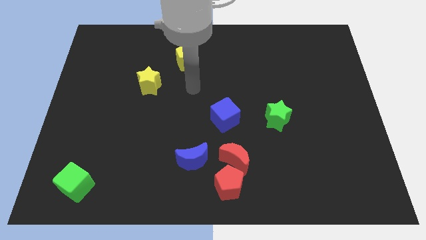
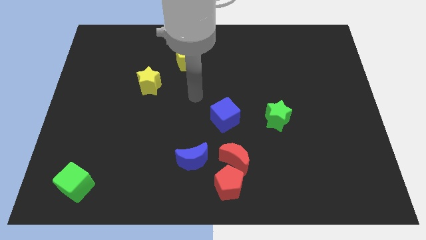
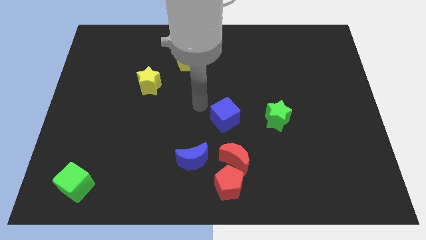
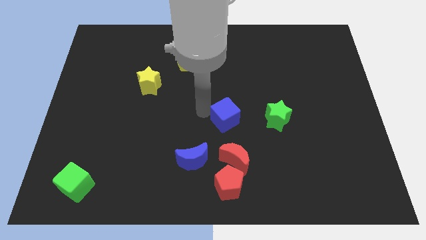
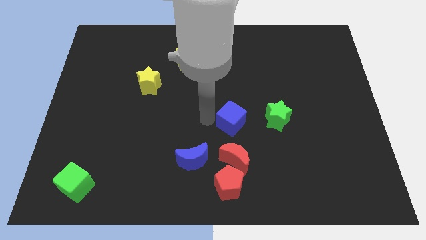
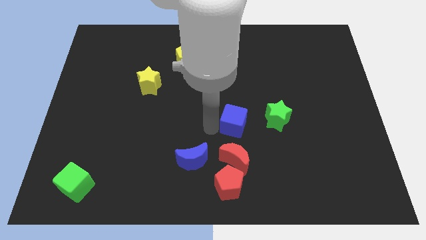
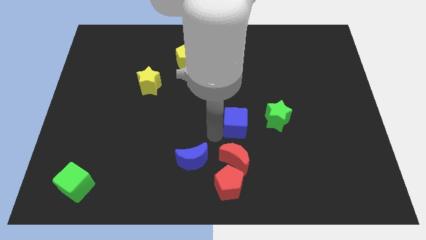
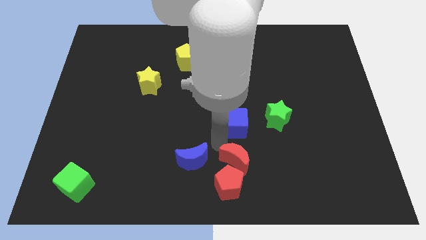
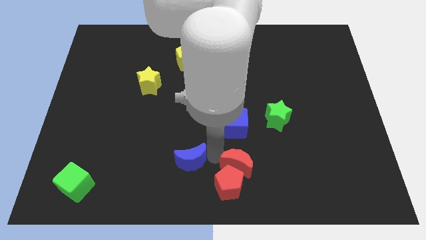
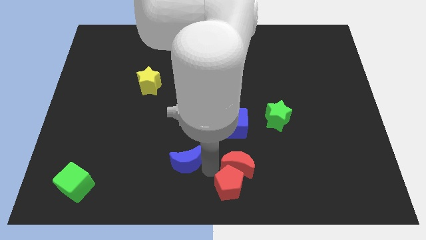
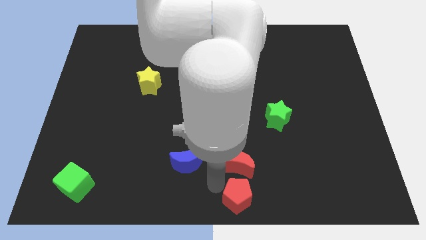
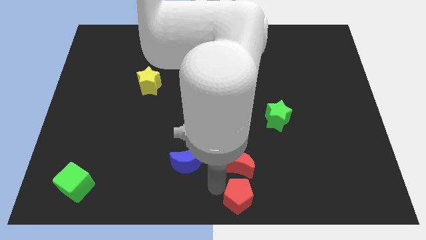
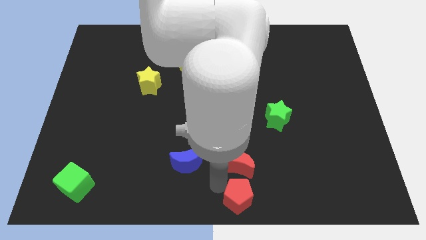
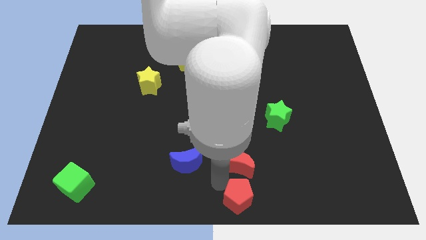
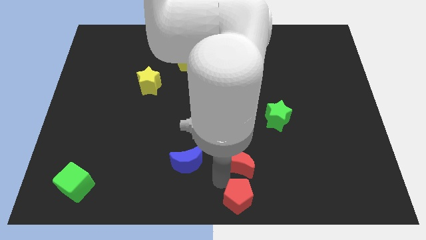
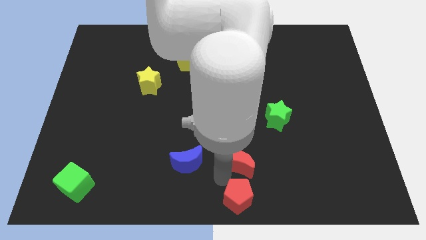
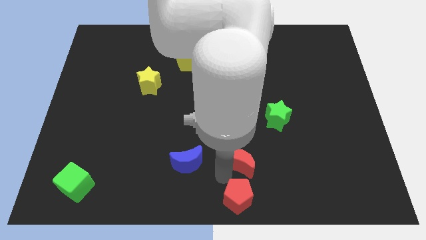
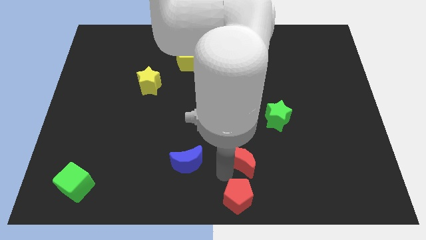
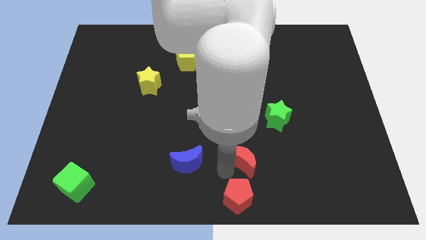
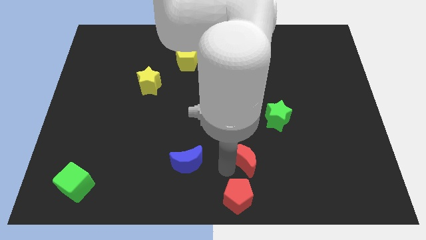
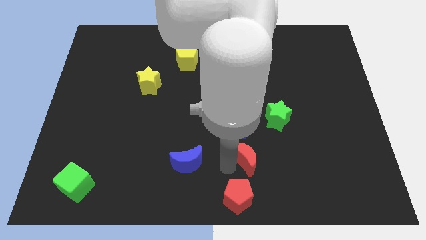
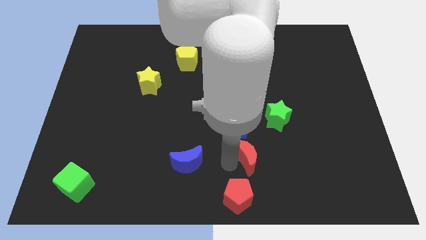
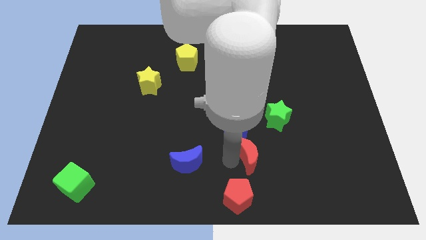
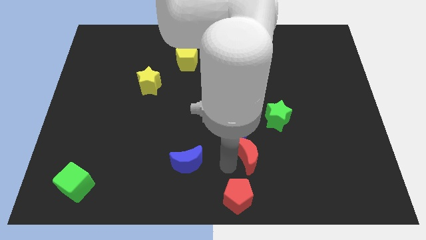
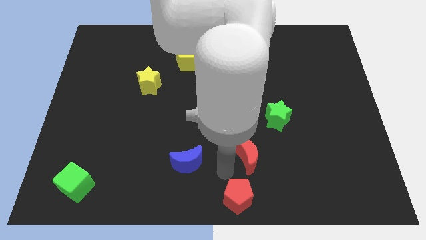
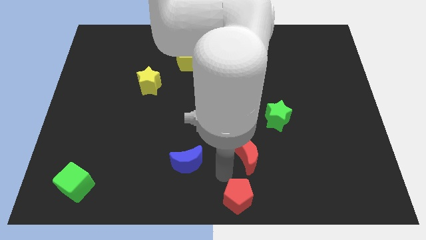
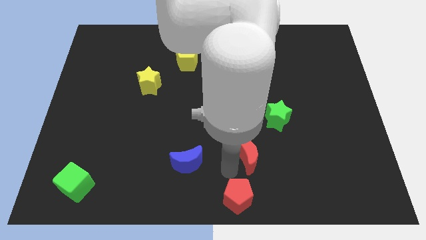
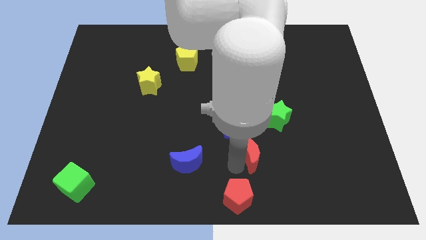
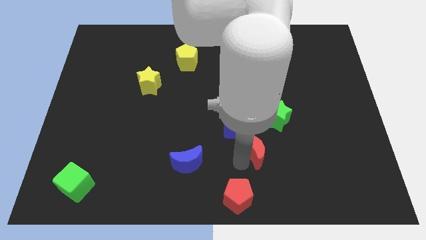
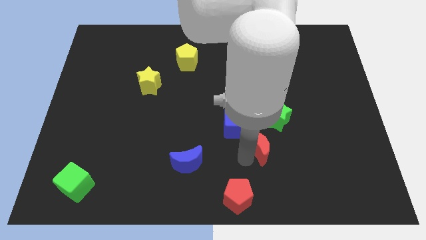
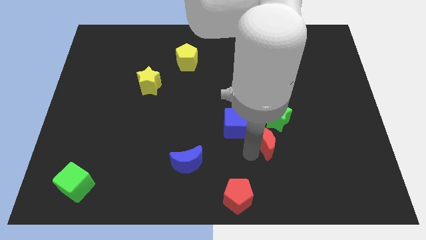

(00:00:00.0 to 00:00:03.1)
push the red moon upwards and then to the right a little bit

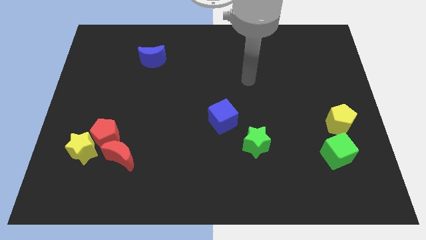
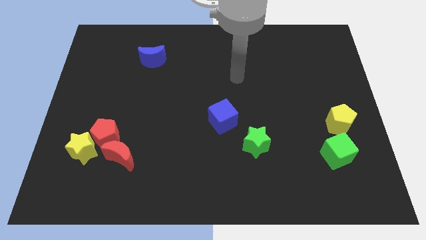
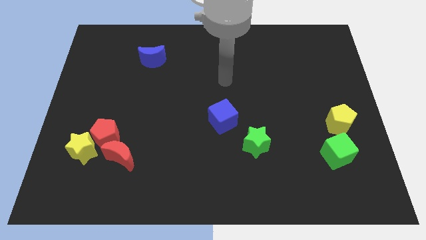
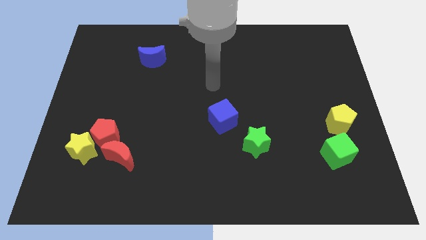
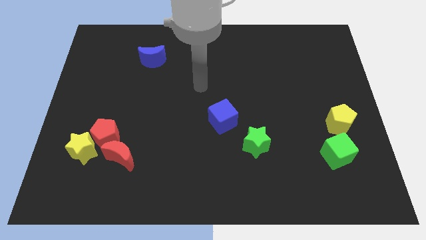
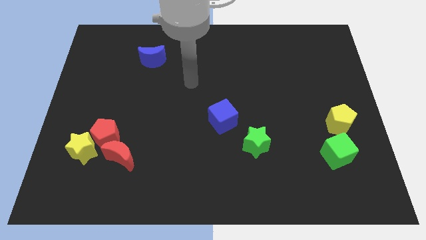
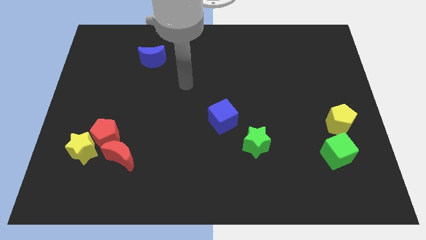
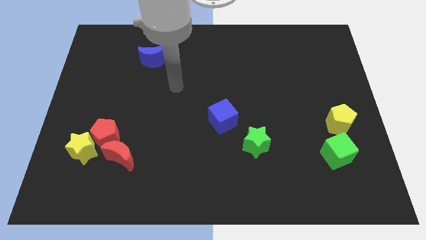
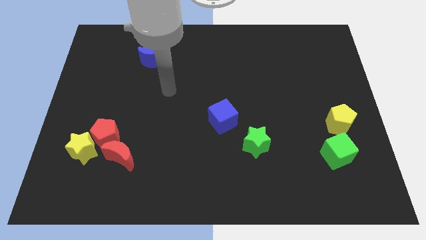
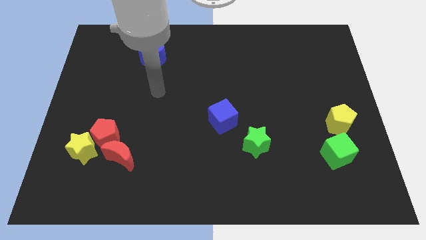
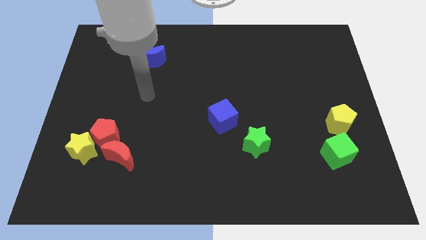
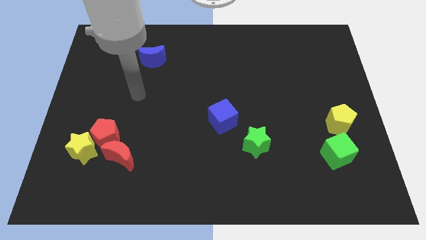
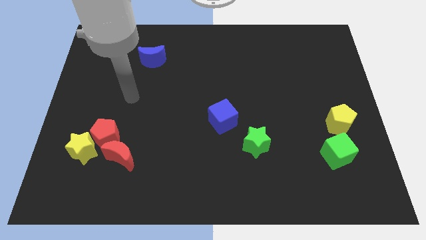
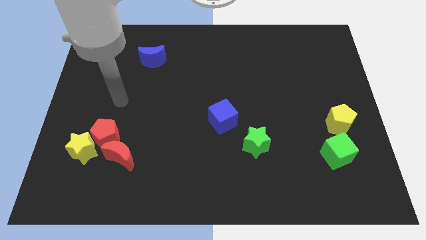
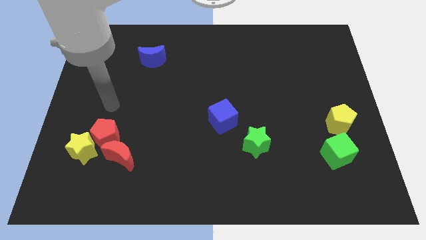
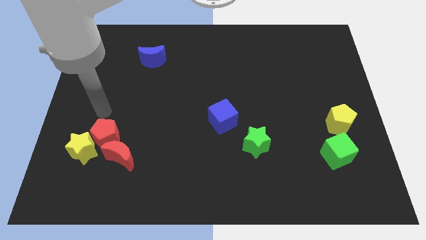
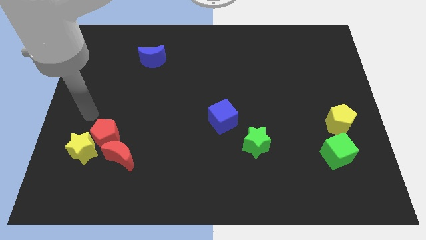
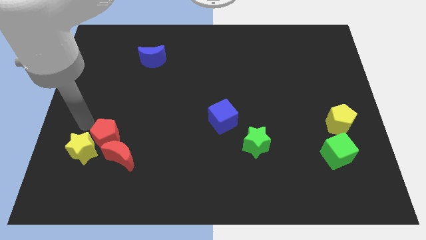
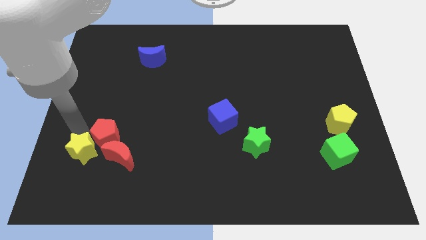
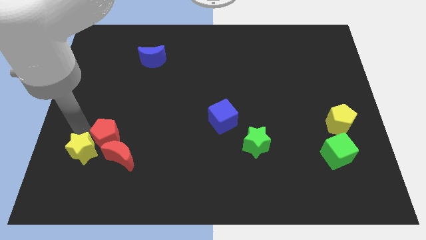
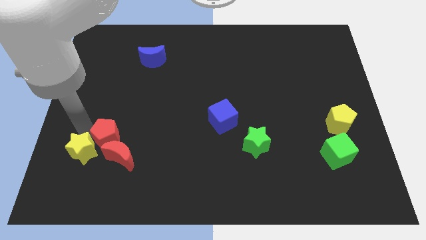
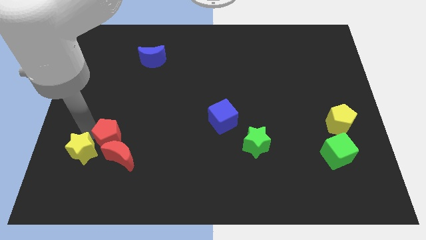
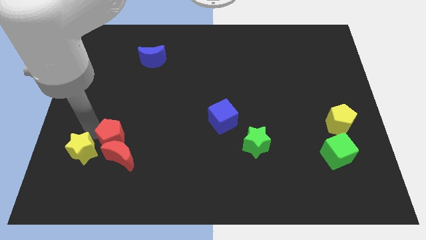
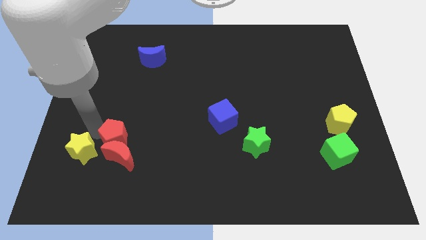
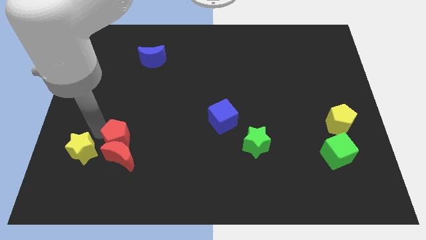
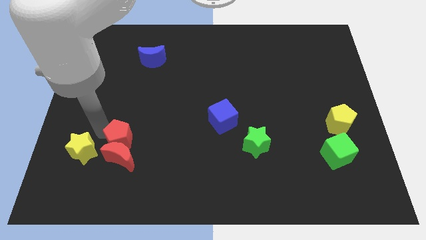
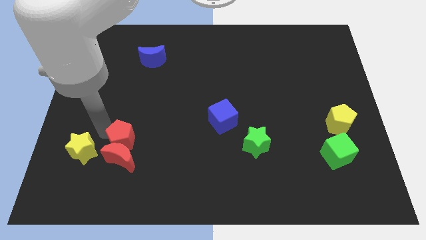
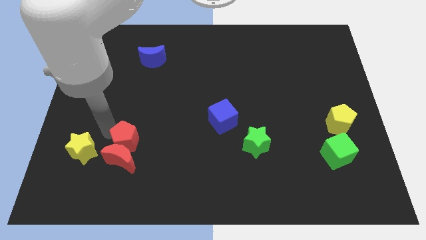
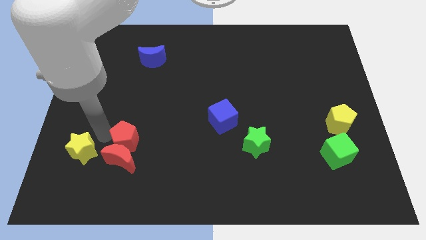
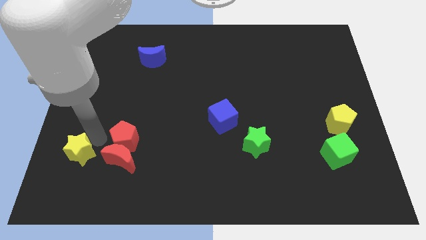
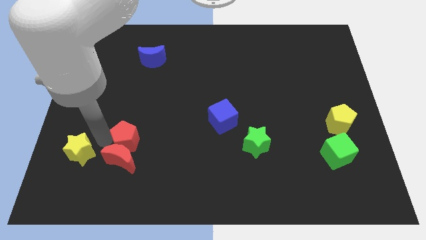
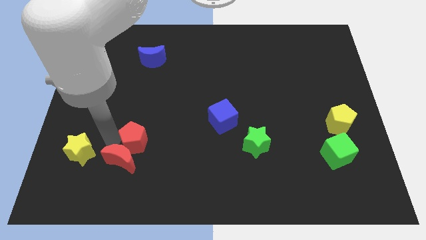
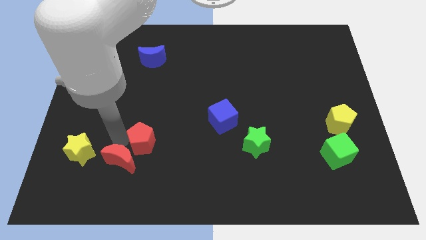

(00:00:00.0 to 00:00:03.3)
slide the red pentagon to the right somewhat

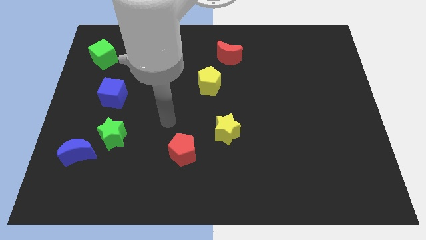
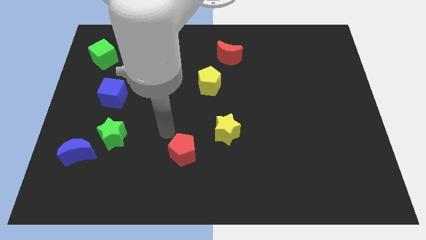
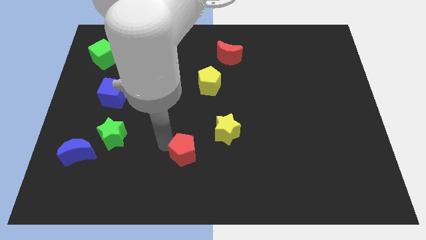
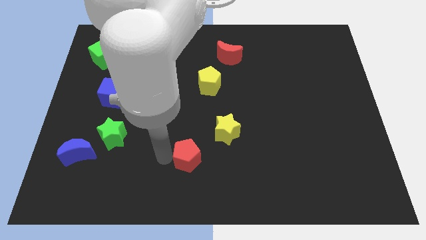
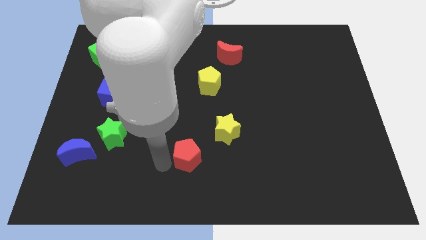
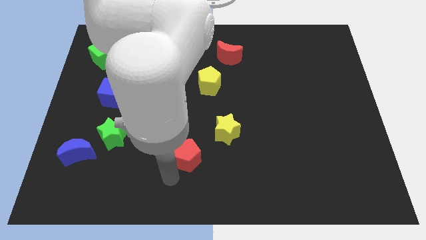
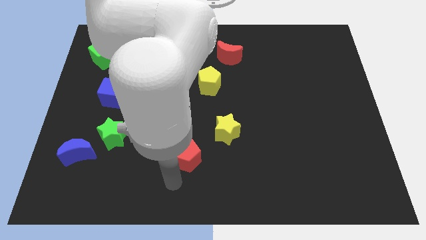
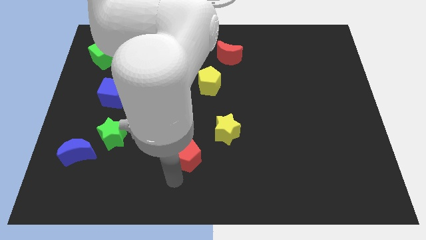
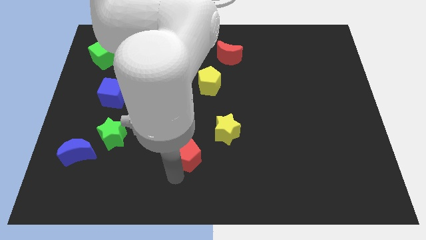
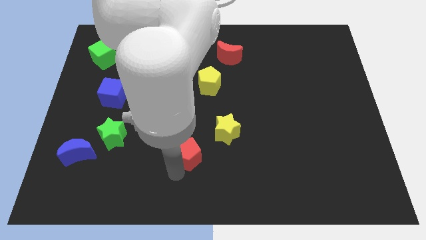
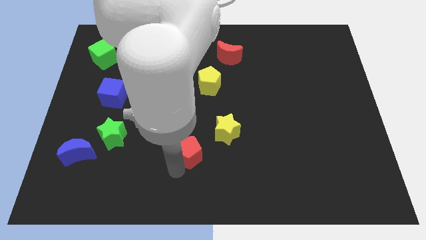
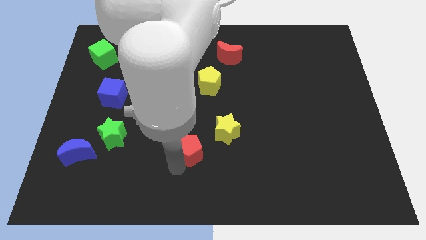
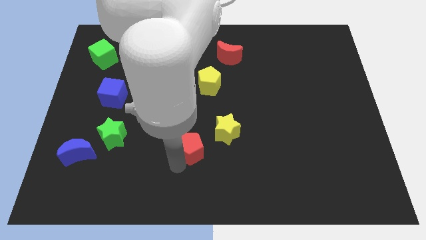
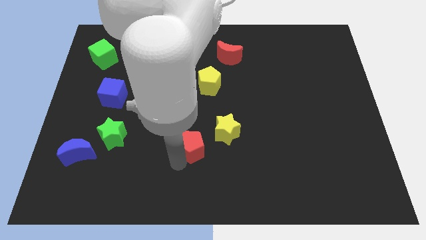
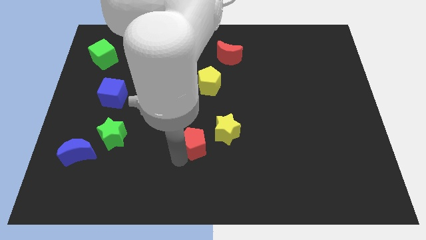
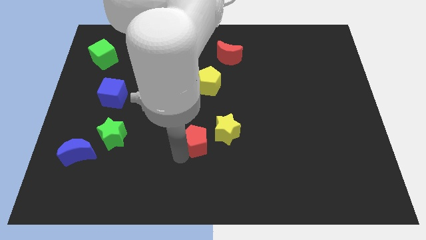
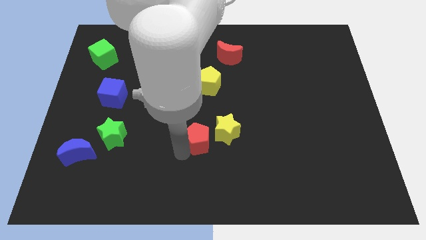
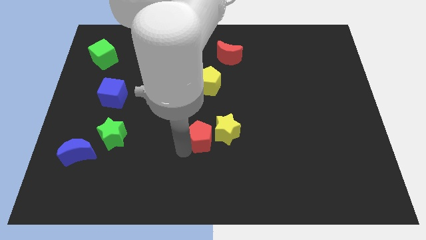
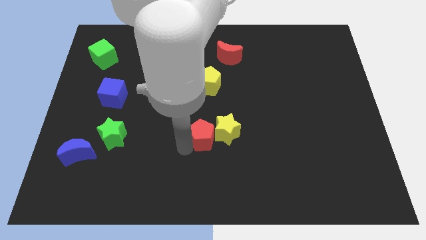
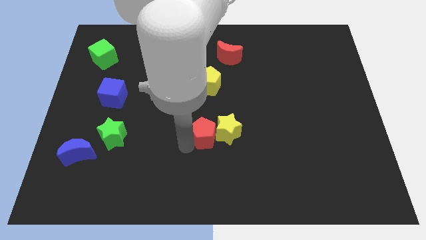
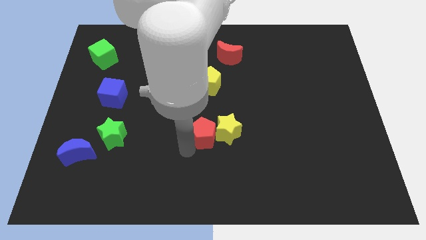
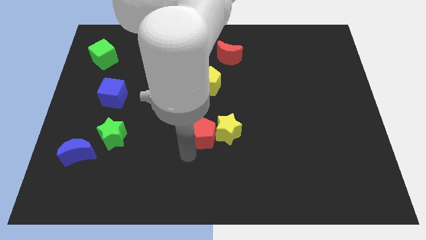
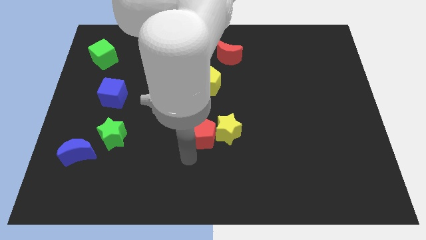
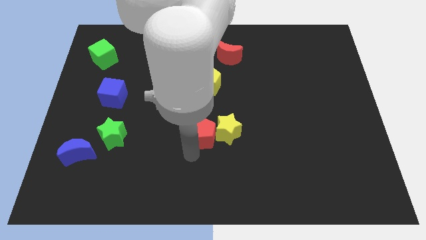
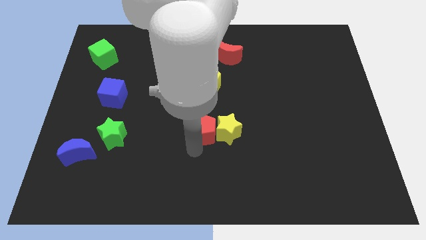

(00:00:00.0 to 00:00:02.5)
slightly move the red pentagon diagonally upwards and to the right
